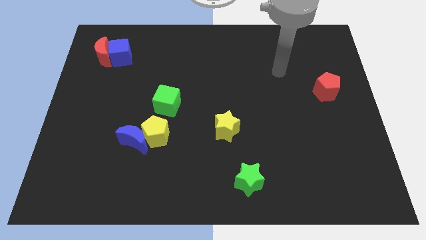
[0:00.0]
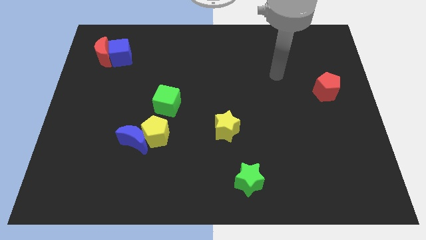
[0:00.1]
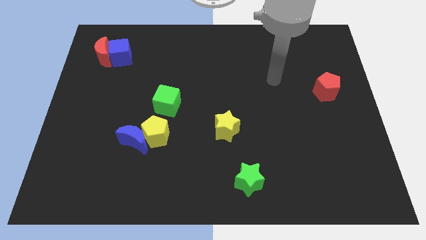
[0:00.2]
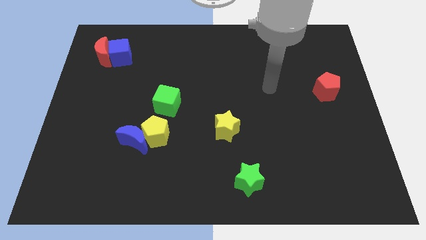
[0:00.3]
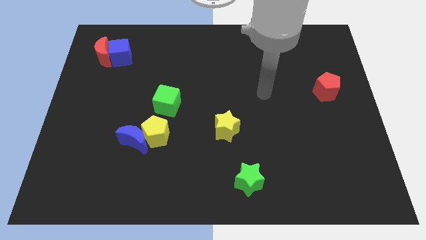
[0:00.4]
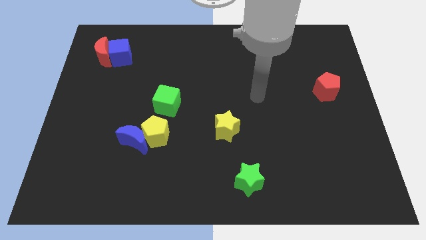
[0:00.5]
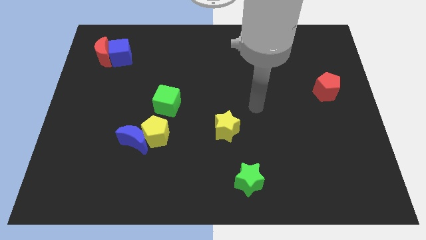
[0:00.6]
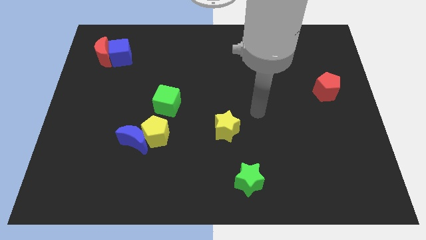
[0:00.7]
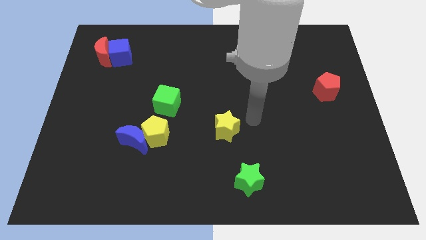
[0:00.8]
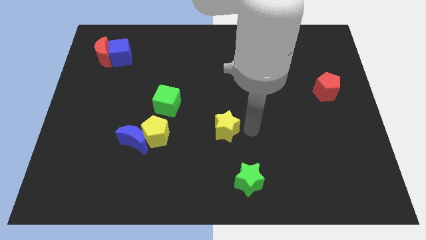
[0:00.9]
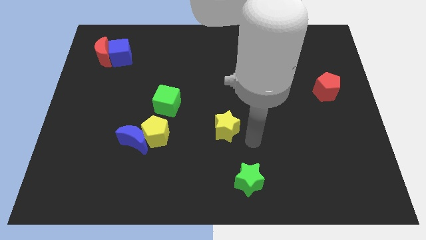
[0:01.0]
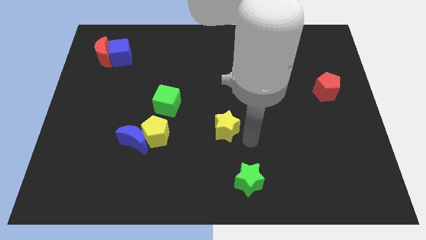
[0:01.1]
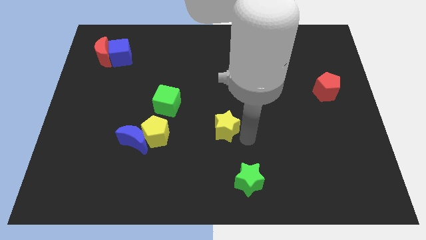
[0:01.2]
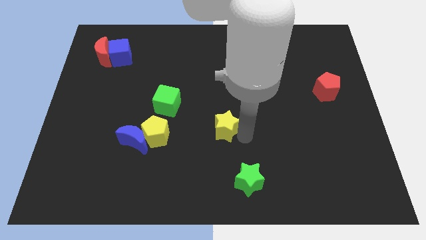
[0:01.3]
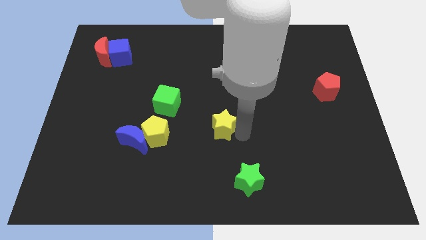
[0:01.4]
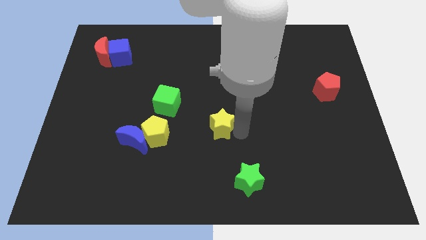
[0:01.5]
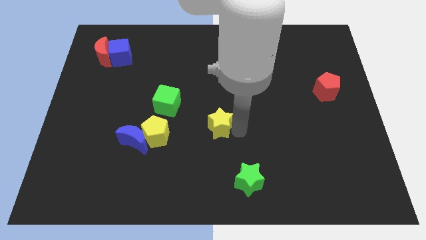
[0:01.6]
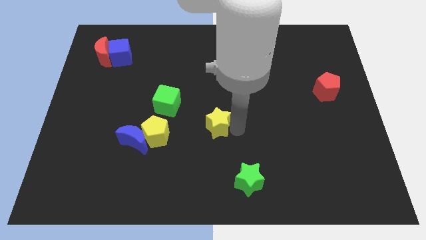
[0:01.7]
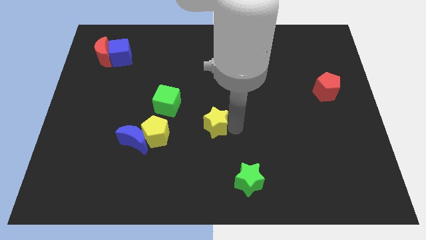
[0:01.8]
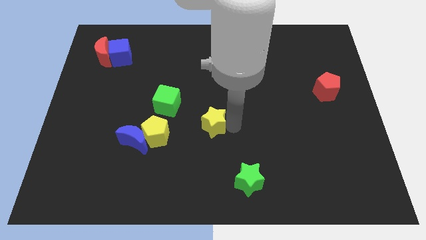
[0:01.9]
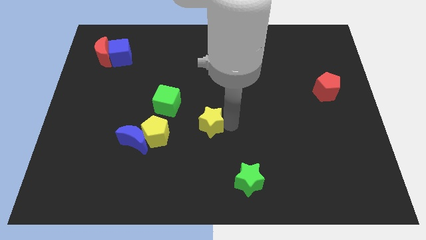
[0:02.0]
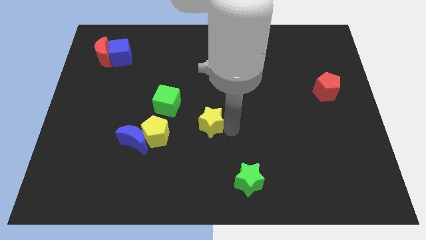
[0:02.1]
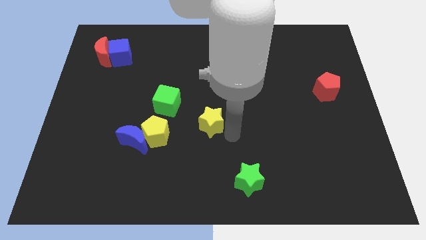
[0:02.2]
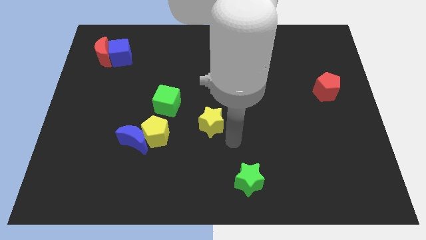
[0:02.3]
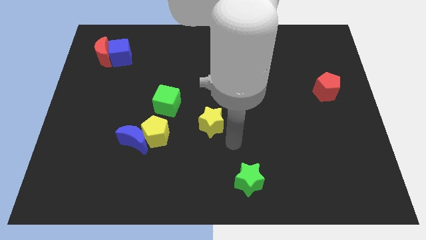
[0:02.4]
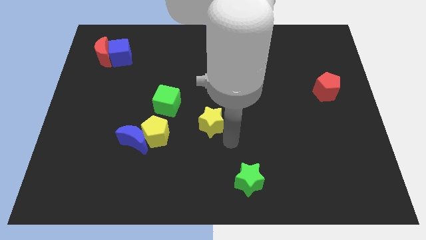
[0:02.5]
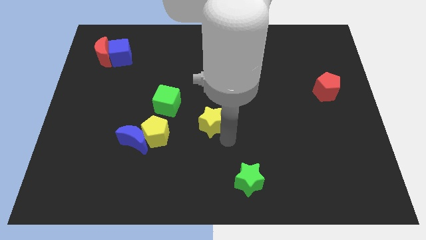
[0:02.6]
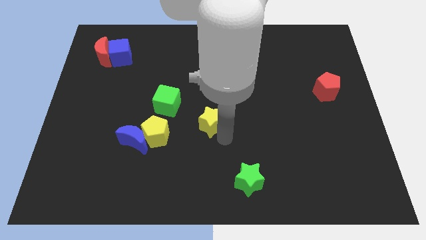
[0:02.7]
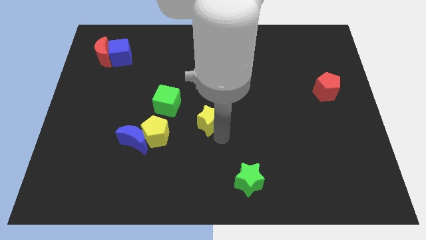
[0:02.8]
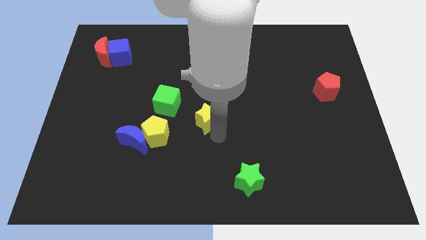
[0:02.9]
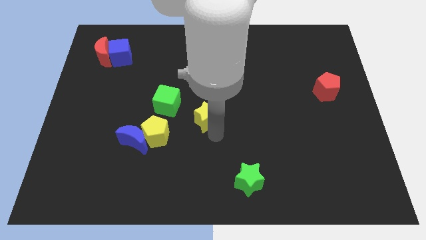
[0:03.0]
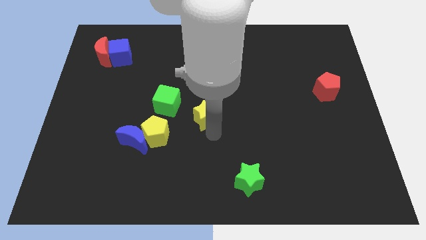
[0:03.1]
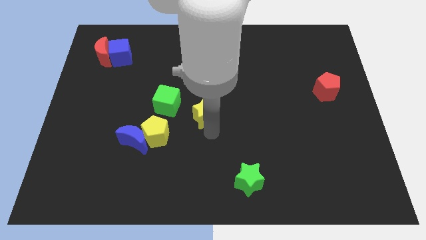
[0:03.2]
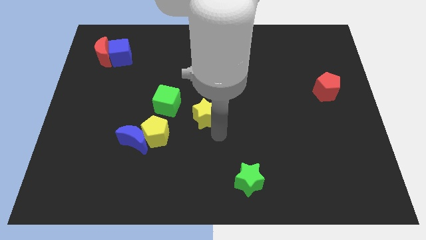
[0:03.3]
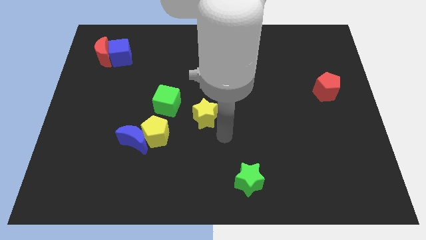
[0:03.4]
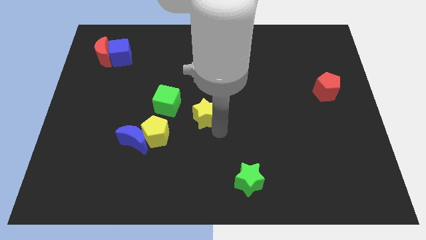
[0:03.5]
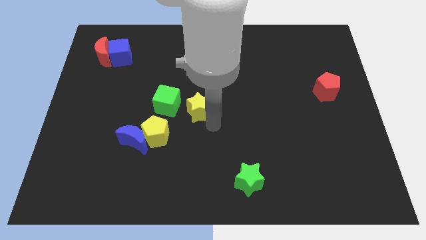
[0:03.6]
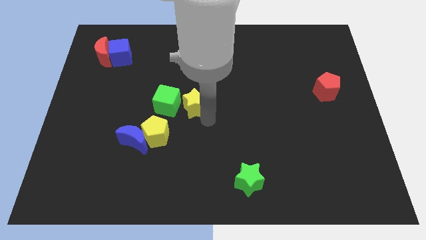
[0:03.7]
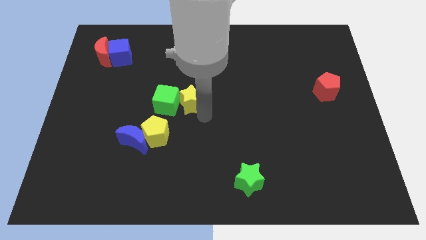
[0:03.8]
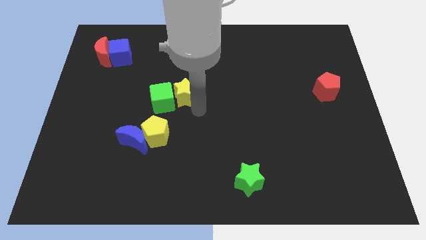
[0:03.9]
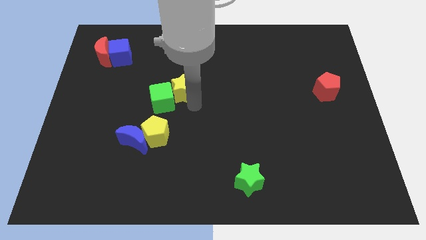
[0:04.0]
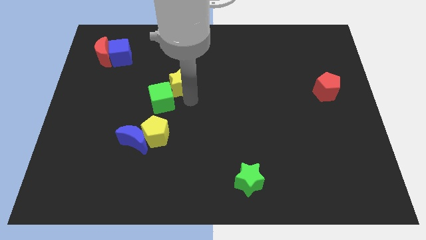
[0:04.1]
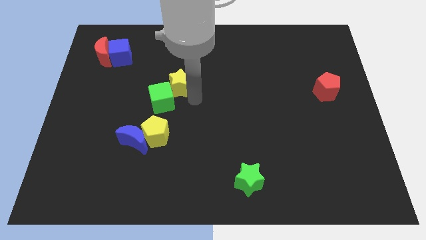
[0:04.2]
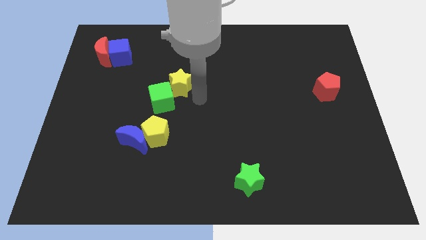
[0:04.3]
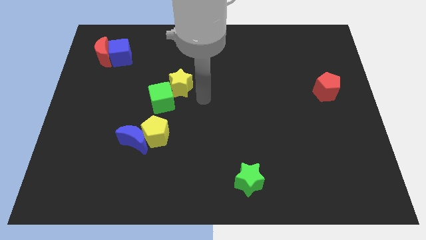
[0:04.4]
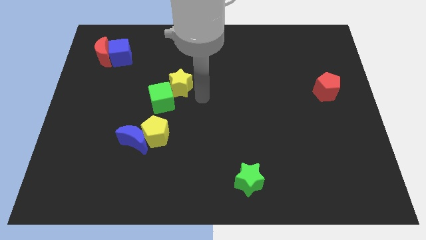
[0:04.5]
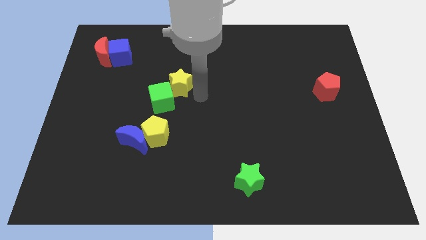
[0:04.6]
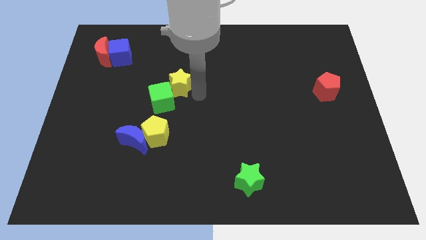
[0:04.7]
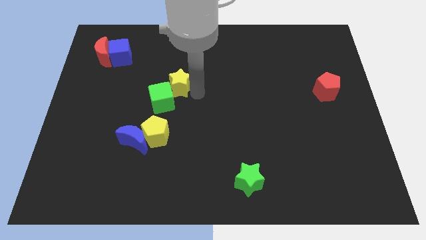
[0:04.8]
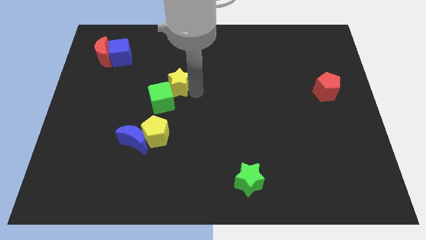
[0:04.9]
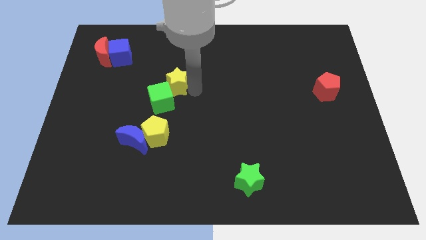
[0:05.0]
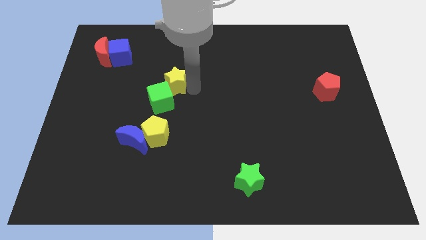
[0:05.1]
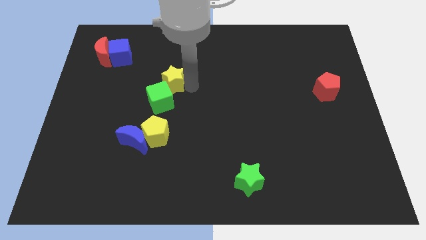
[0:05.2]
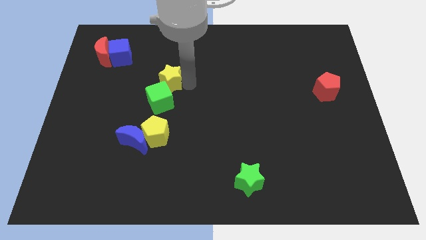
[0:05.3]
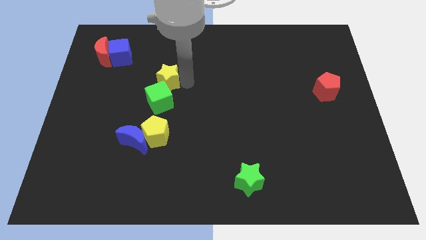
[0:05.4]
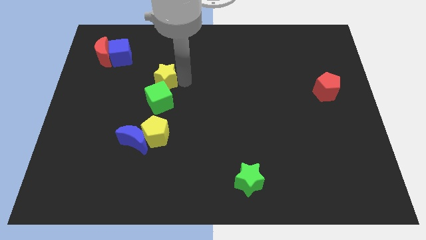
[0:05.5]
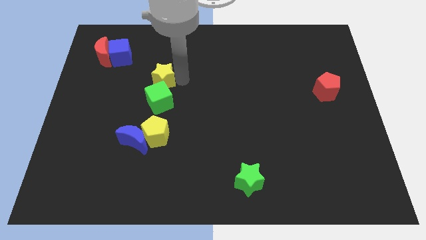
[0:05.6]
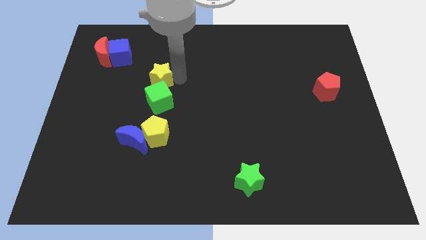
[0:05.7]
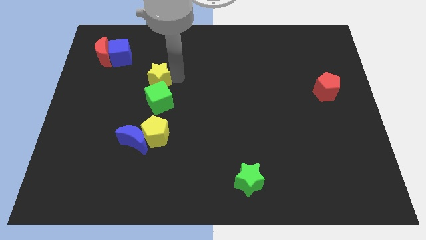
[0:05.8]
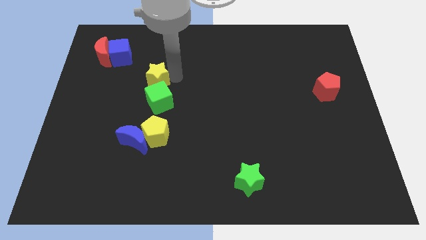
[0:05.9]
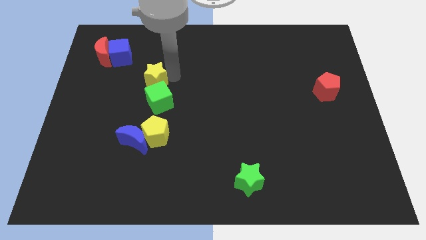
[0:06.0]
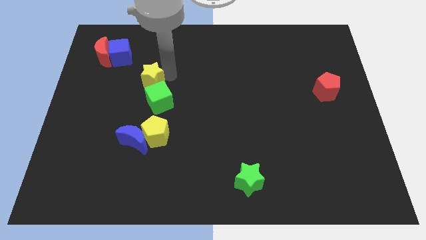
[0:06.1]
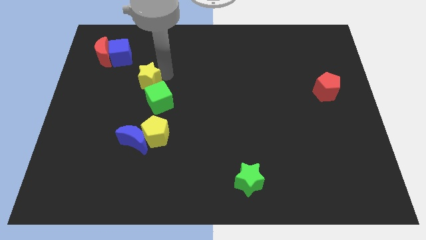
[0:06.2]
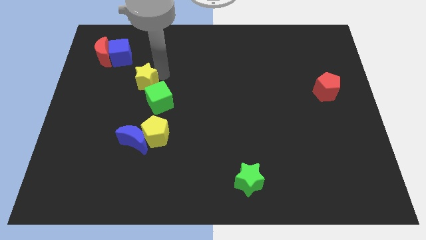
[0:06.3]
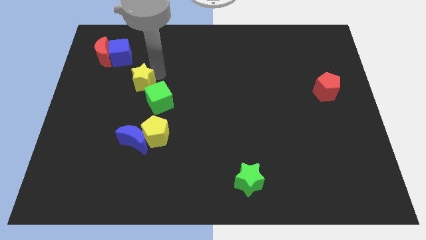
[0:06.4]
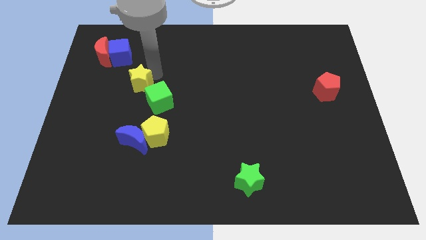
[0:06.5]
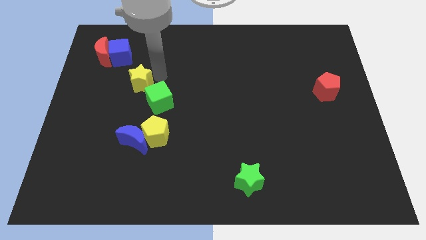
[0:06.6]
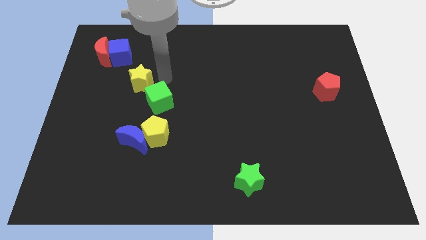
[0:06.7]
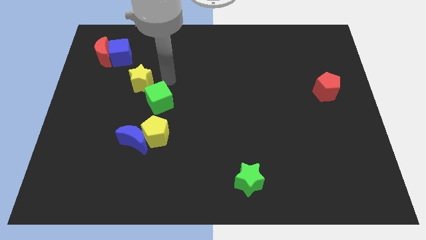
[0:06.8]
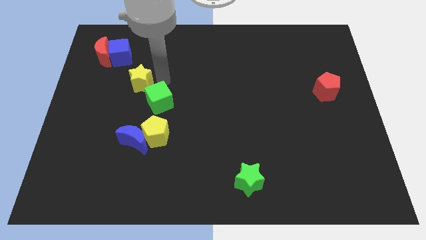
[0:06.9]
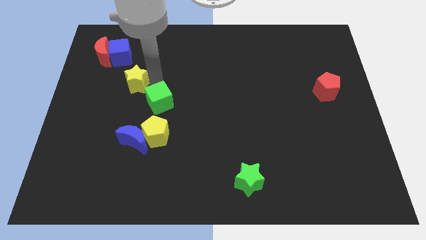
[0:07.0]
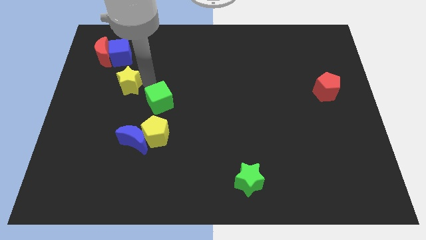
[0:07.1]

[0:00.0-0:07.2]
push the yellow star to the bottom side of the blue cube
